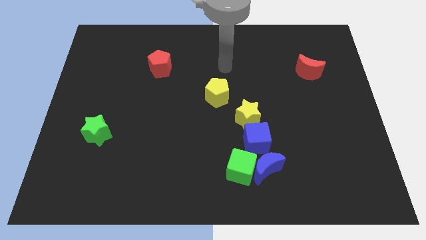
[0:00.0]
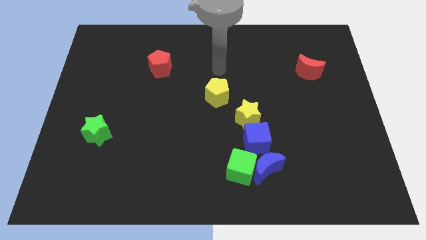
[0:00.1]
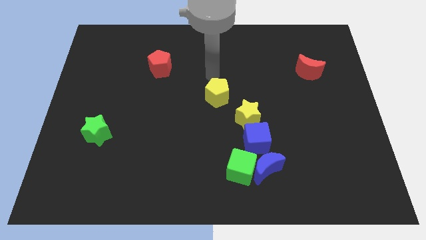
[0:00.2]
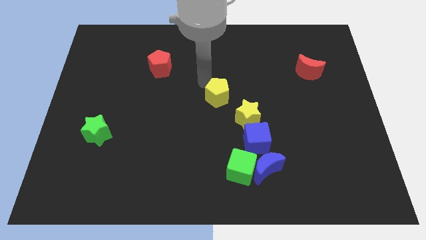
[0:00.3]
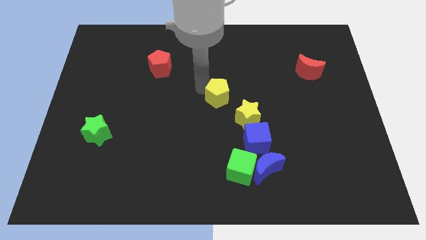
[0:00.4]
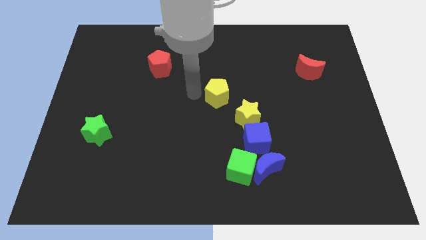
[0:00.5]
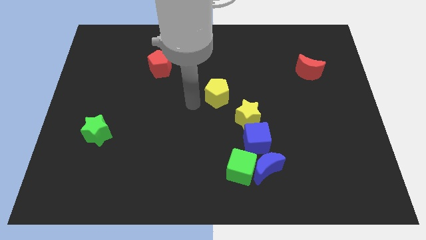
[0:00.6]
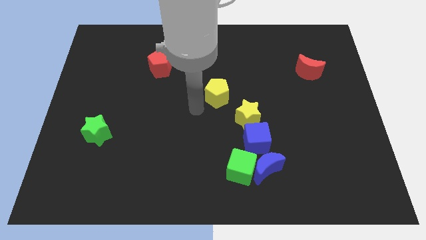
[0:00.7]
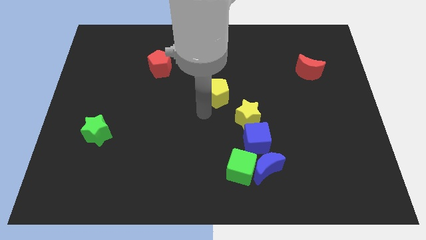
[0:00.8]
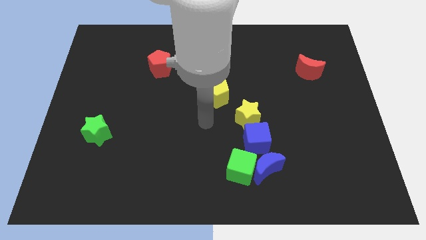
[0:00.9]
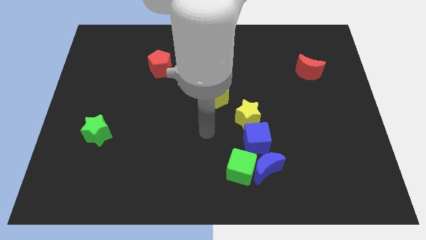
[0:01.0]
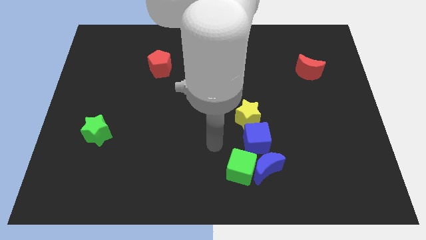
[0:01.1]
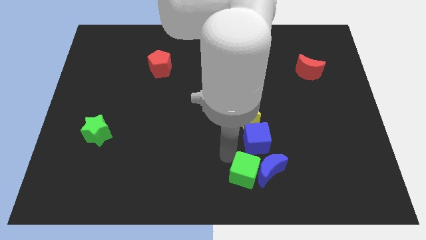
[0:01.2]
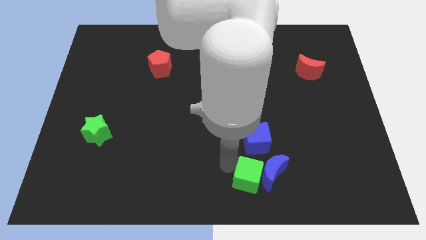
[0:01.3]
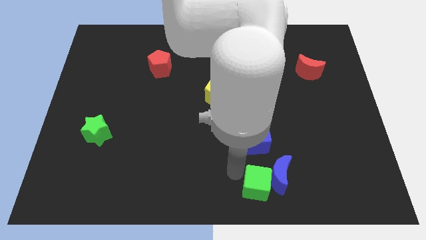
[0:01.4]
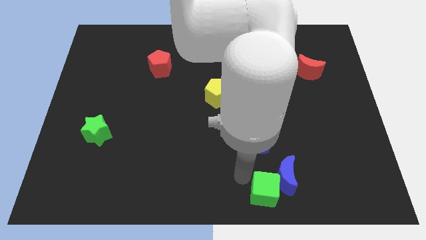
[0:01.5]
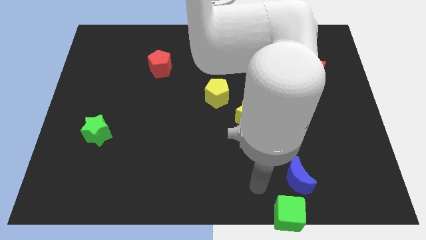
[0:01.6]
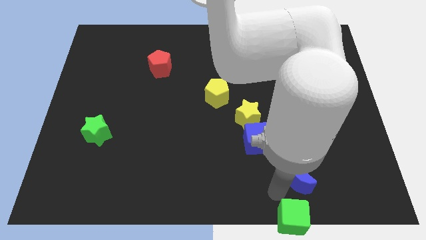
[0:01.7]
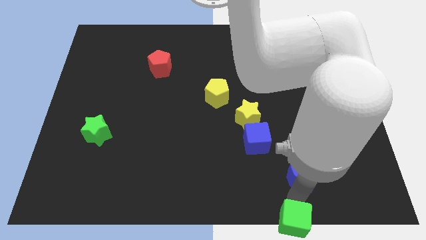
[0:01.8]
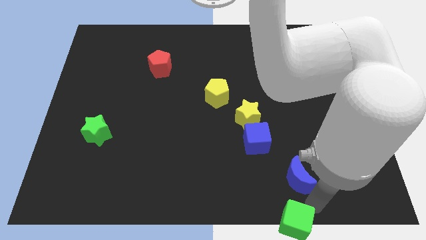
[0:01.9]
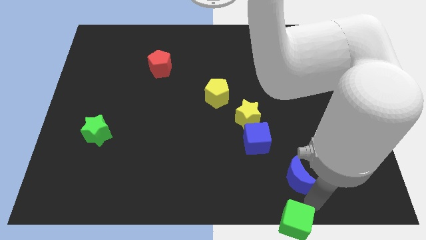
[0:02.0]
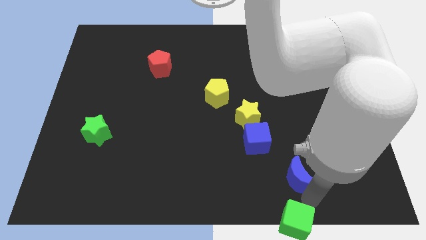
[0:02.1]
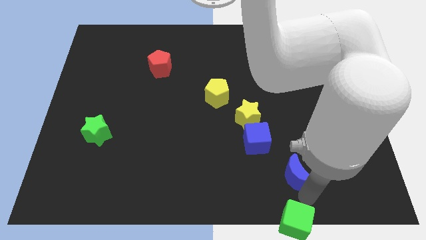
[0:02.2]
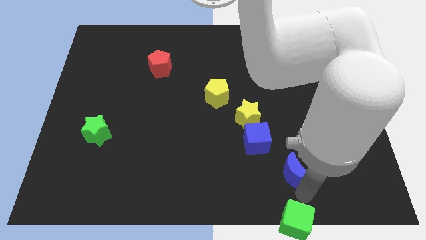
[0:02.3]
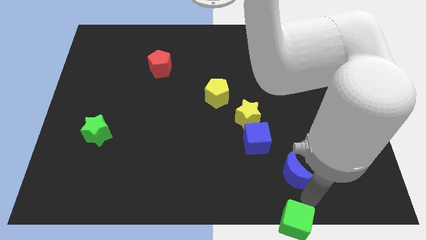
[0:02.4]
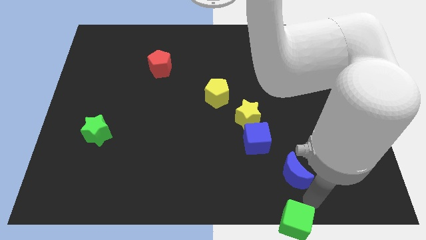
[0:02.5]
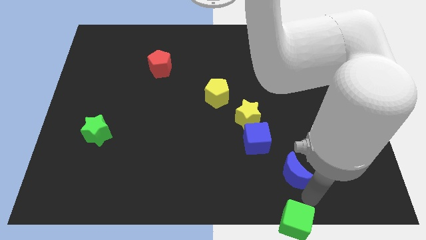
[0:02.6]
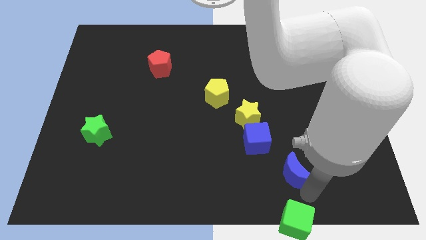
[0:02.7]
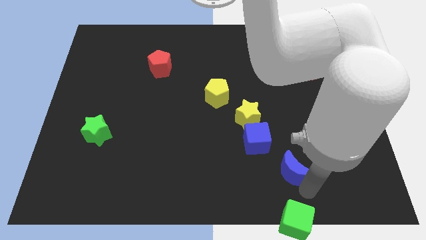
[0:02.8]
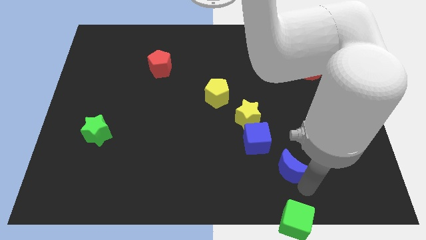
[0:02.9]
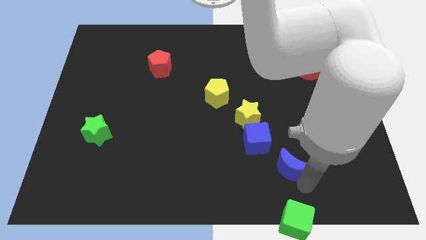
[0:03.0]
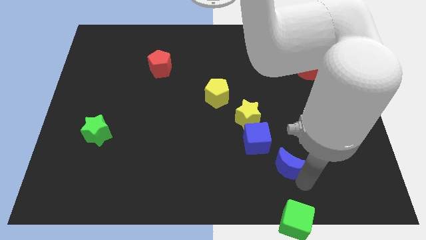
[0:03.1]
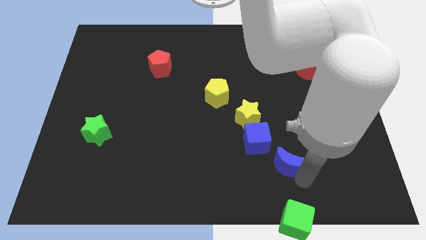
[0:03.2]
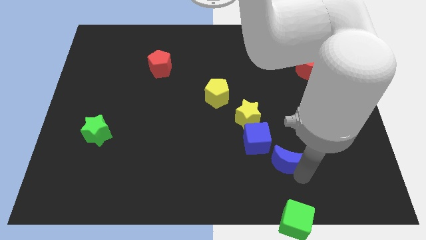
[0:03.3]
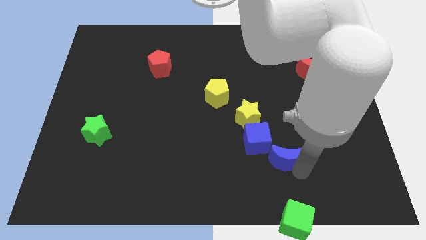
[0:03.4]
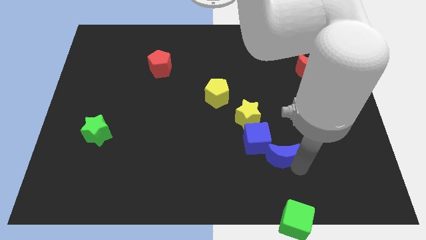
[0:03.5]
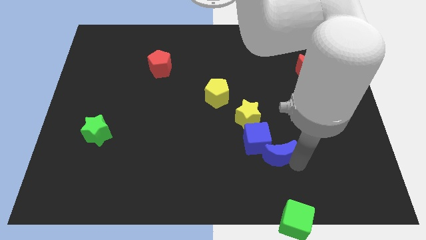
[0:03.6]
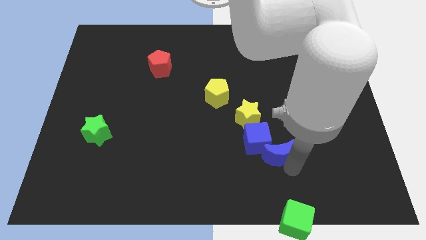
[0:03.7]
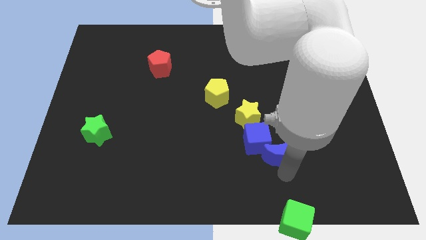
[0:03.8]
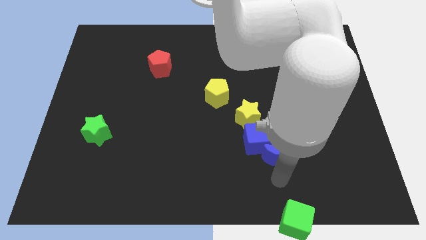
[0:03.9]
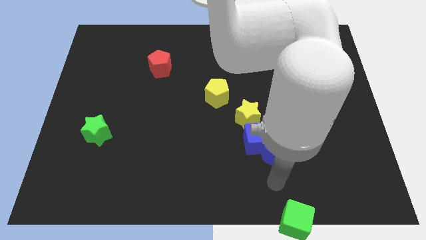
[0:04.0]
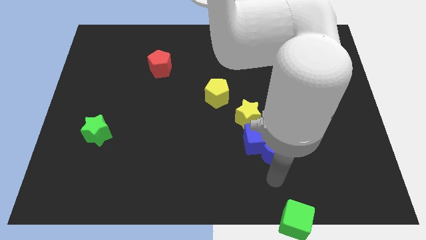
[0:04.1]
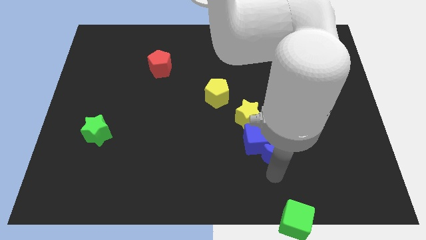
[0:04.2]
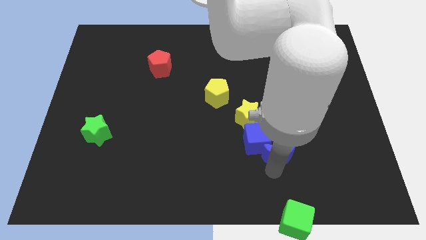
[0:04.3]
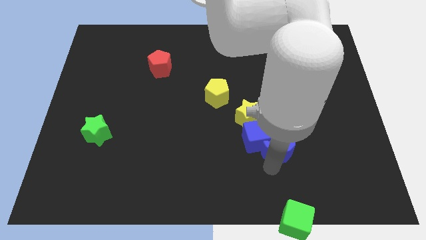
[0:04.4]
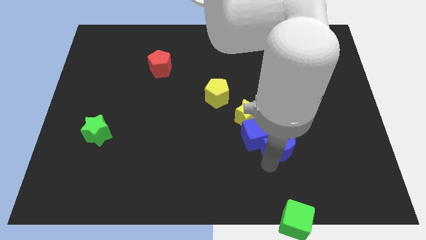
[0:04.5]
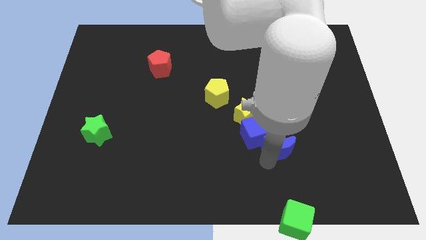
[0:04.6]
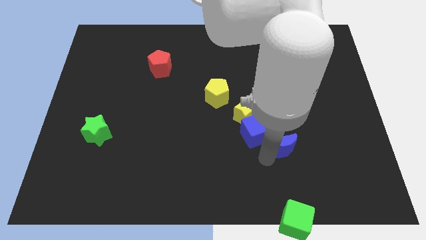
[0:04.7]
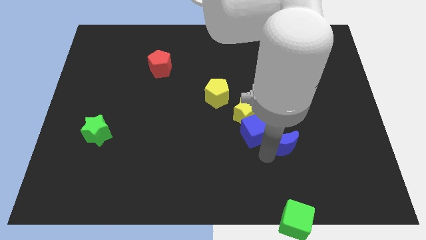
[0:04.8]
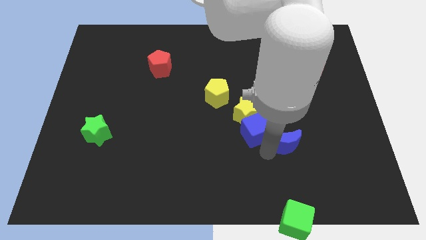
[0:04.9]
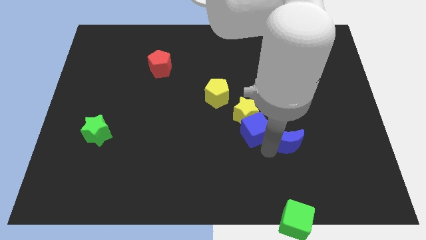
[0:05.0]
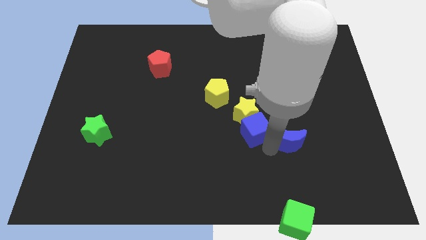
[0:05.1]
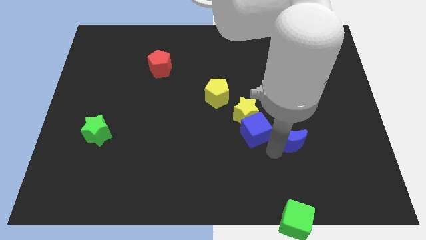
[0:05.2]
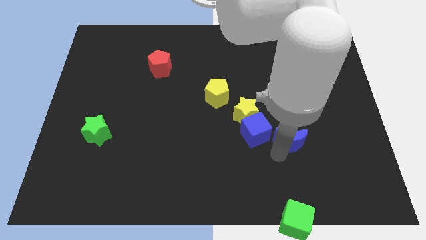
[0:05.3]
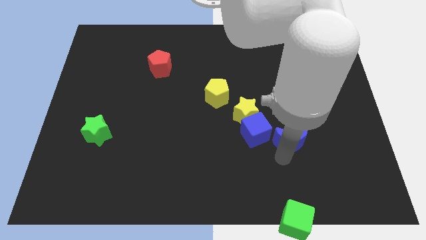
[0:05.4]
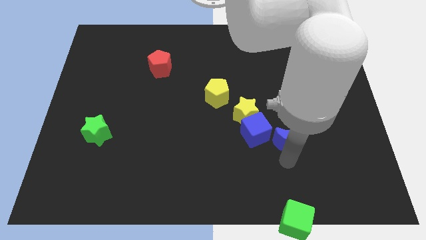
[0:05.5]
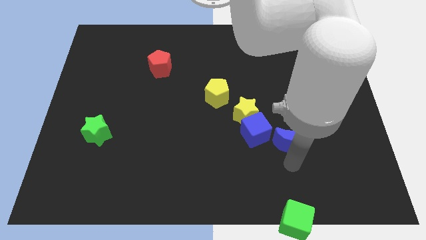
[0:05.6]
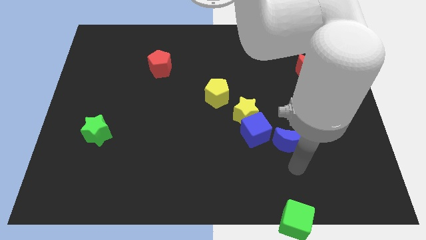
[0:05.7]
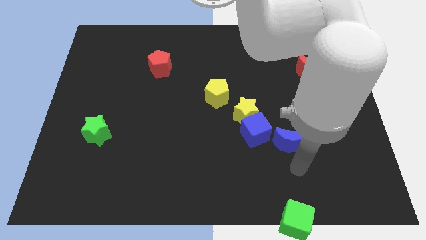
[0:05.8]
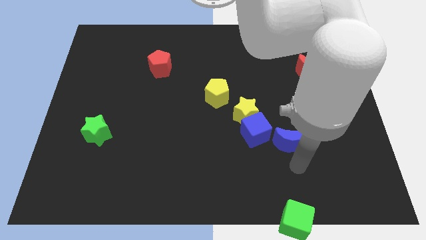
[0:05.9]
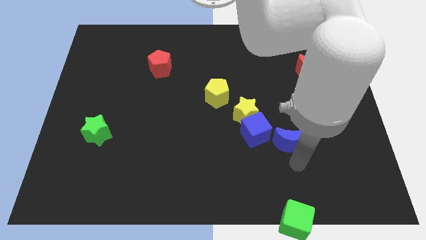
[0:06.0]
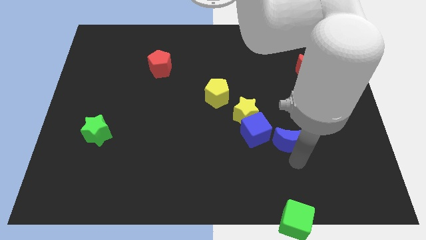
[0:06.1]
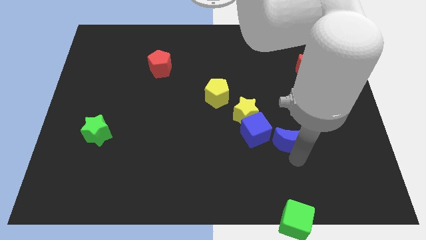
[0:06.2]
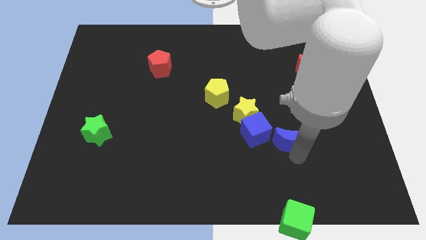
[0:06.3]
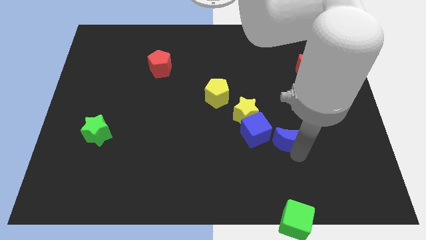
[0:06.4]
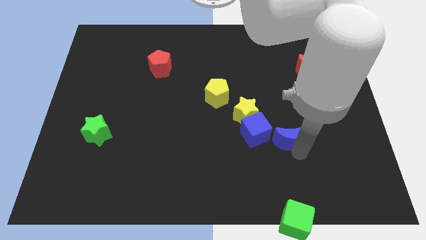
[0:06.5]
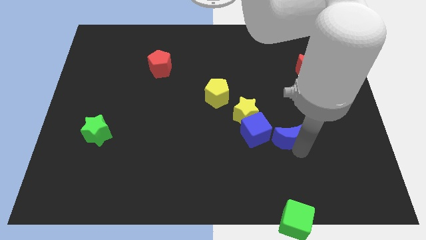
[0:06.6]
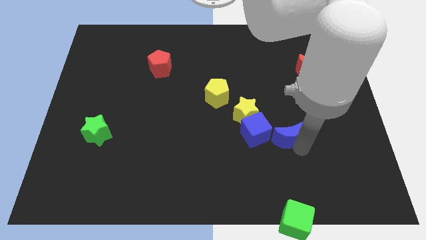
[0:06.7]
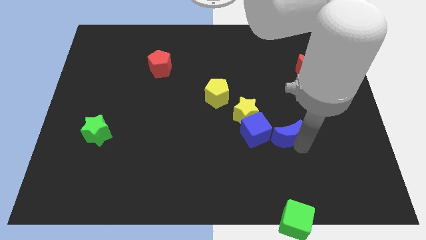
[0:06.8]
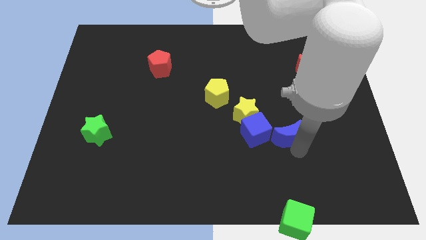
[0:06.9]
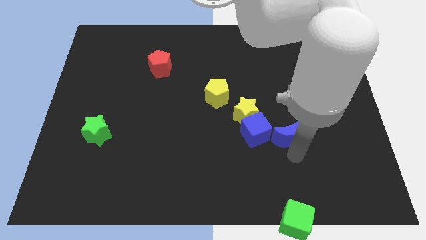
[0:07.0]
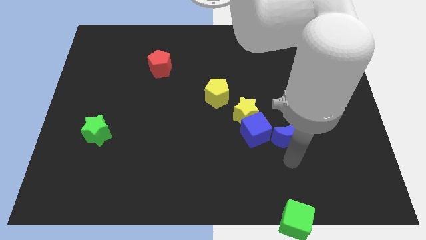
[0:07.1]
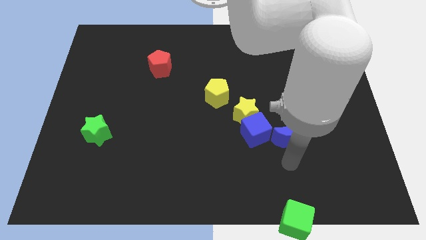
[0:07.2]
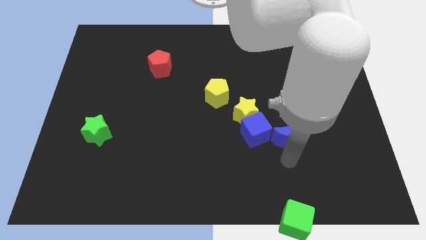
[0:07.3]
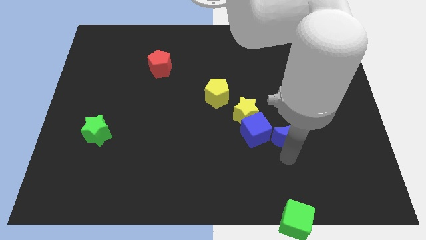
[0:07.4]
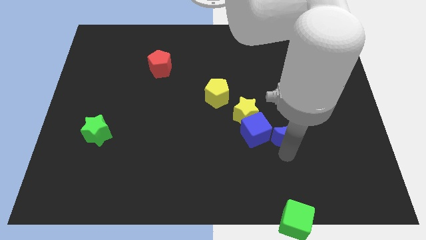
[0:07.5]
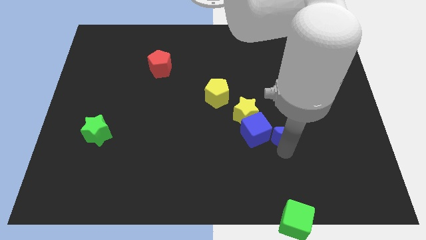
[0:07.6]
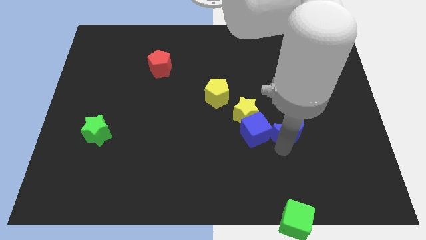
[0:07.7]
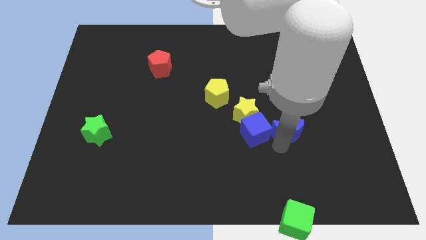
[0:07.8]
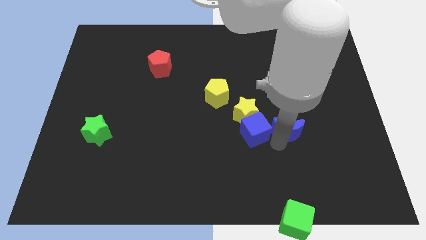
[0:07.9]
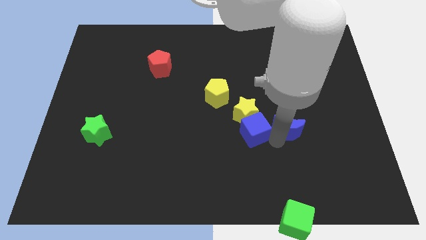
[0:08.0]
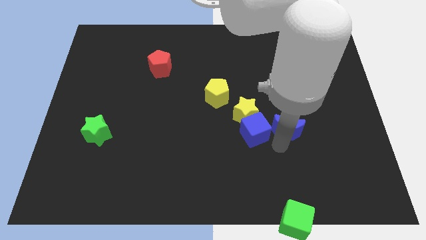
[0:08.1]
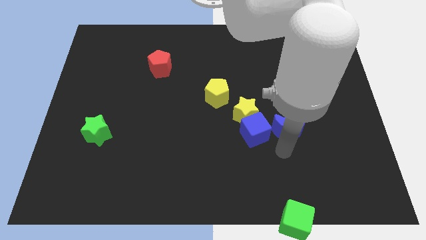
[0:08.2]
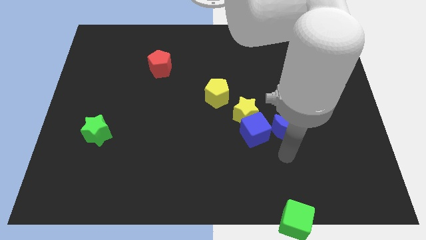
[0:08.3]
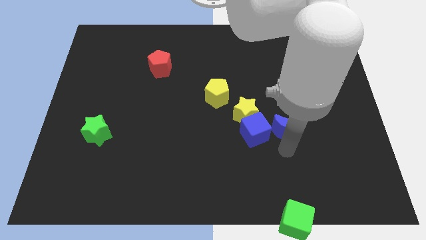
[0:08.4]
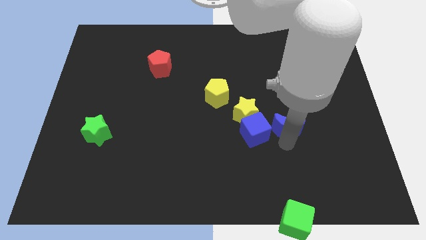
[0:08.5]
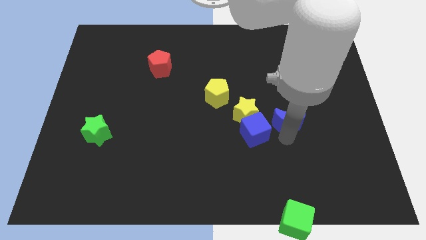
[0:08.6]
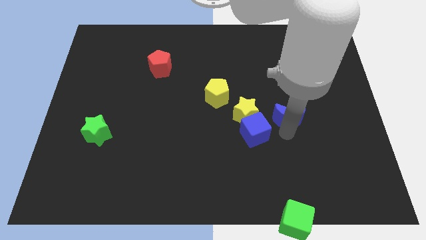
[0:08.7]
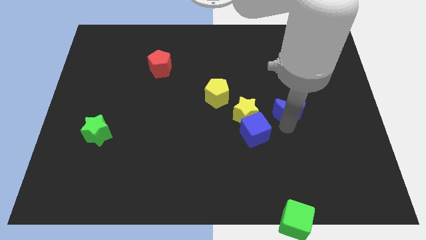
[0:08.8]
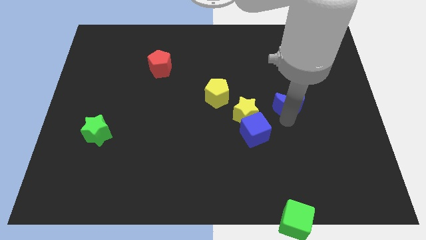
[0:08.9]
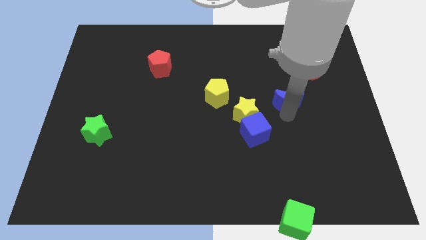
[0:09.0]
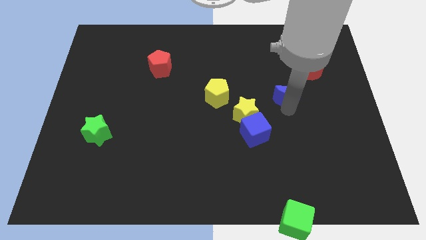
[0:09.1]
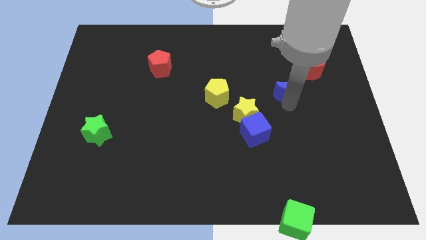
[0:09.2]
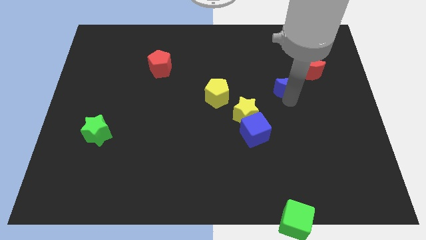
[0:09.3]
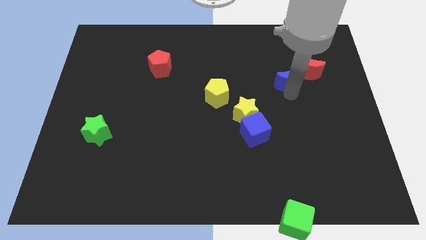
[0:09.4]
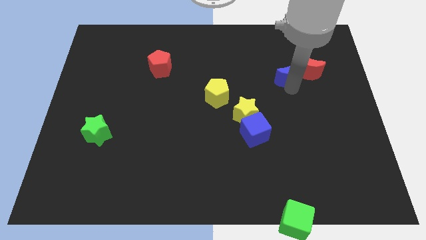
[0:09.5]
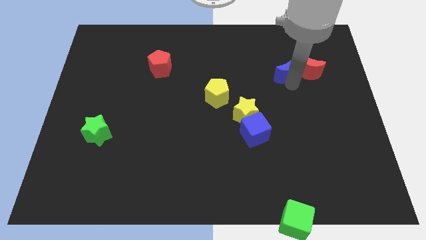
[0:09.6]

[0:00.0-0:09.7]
slide the blue moon to the top left side of the red moon
